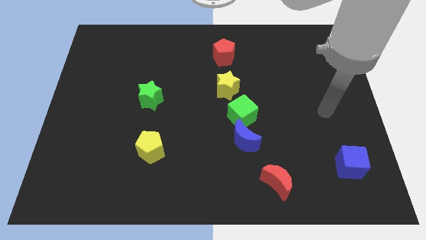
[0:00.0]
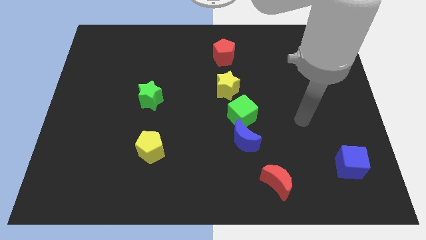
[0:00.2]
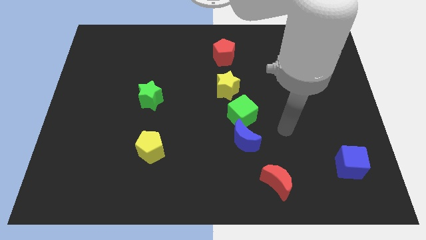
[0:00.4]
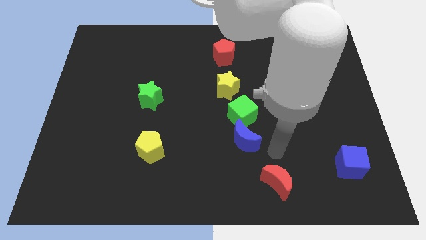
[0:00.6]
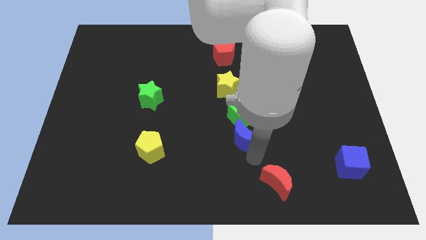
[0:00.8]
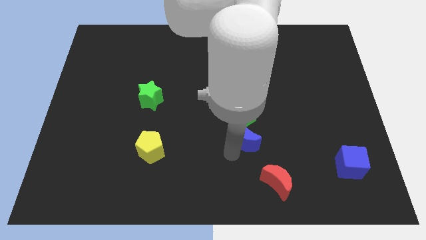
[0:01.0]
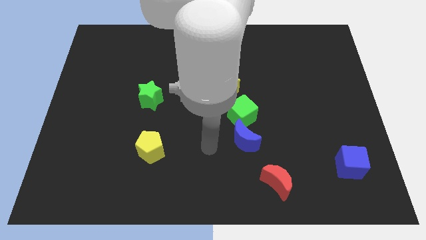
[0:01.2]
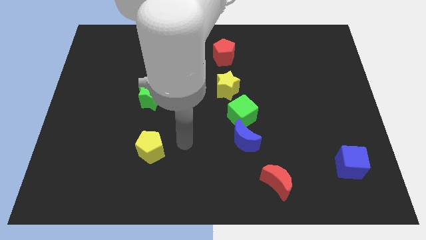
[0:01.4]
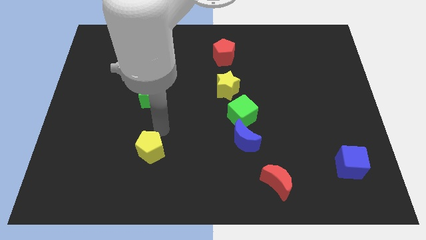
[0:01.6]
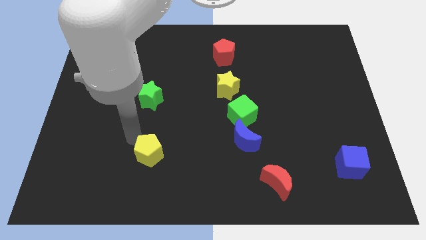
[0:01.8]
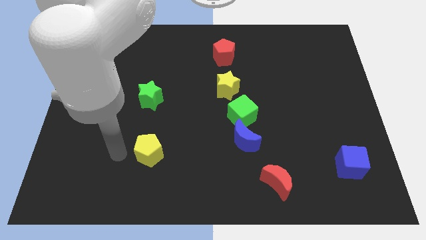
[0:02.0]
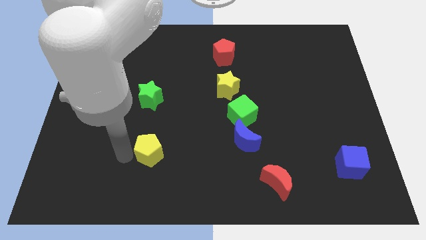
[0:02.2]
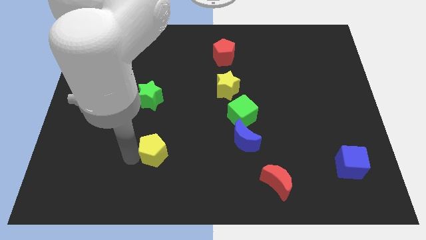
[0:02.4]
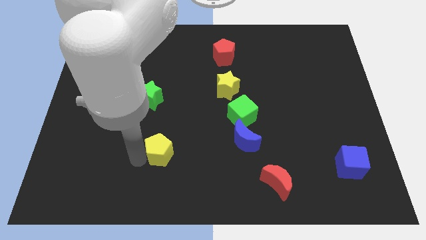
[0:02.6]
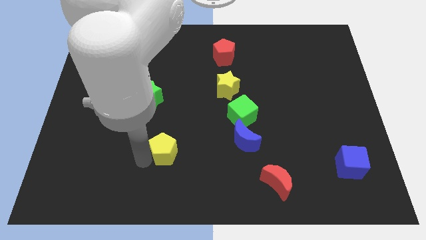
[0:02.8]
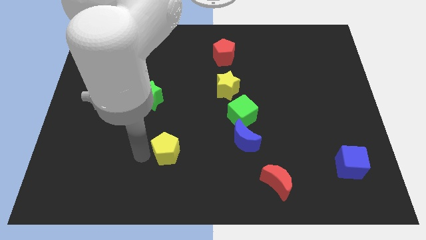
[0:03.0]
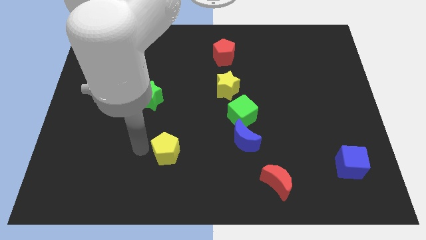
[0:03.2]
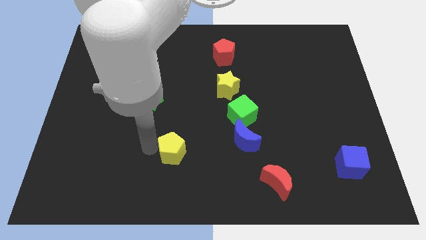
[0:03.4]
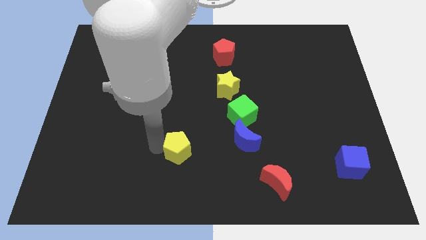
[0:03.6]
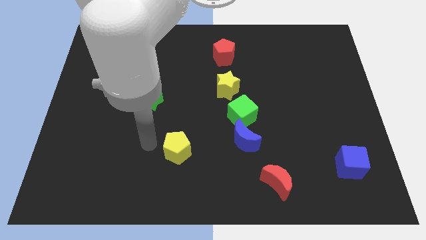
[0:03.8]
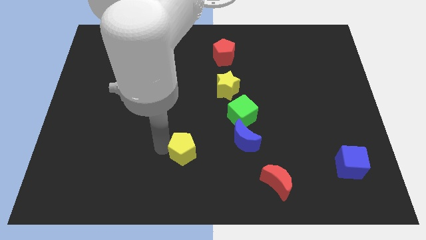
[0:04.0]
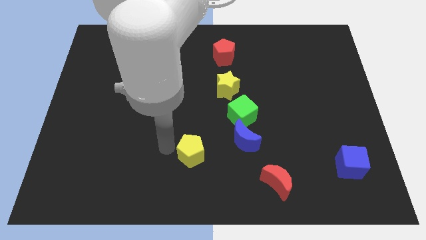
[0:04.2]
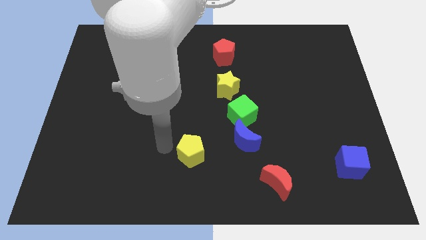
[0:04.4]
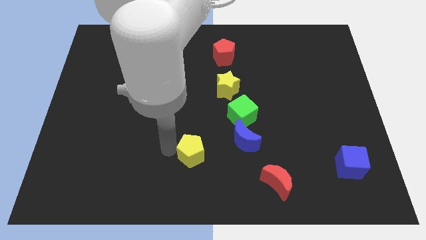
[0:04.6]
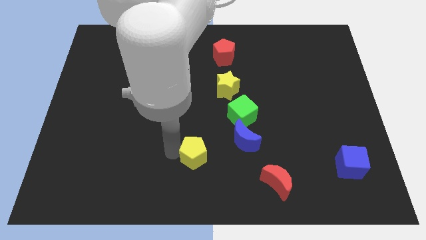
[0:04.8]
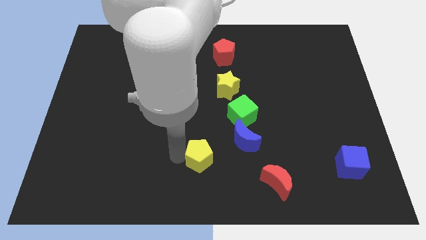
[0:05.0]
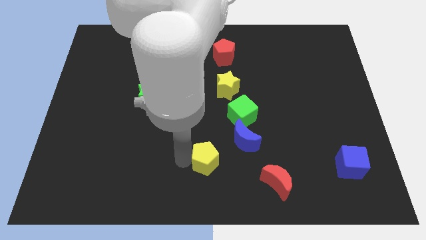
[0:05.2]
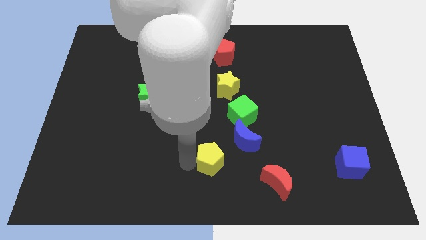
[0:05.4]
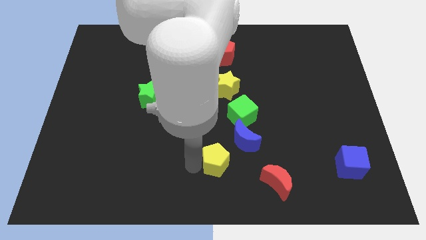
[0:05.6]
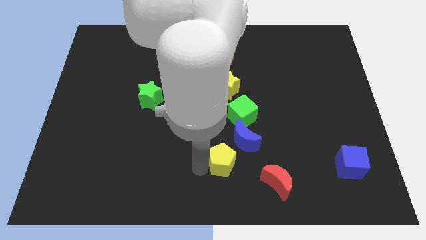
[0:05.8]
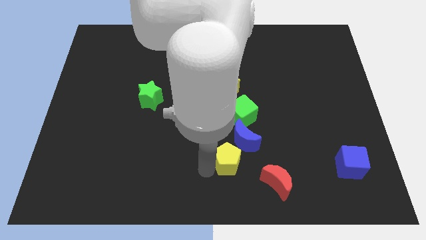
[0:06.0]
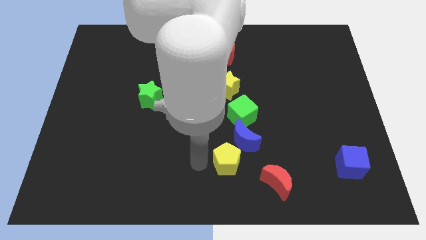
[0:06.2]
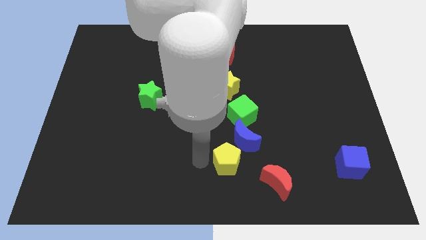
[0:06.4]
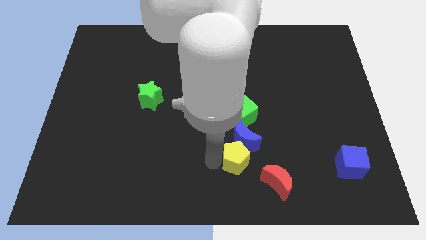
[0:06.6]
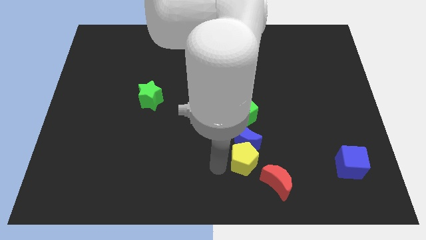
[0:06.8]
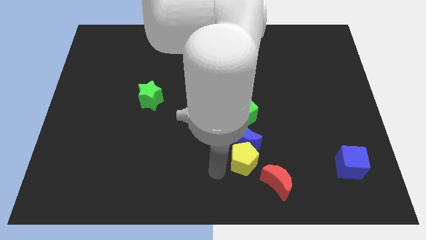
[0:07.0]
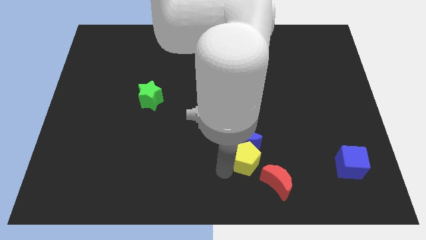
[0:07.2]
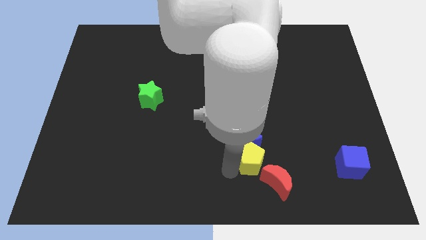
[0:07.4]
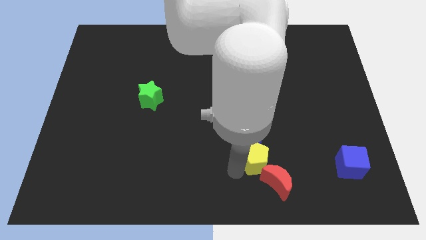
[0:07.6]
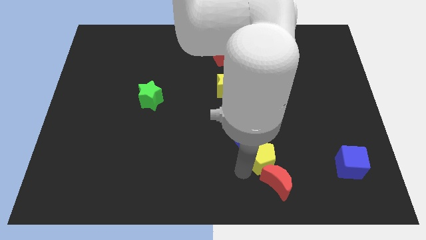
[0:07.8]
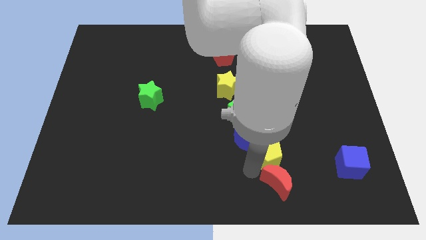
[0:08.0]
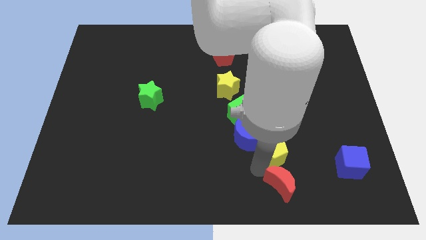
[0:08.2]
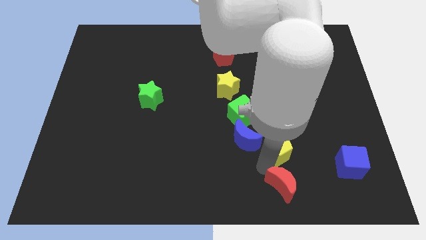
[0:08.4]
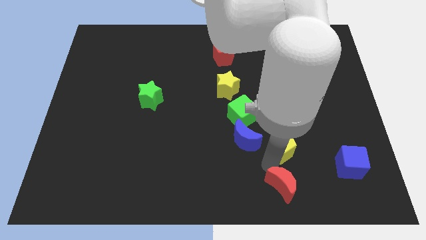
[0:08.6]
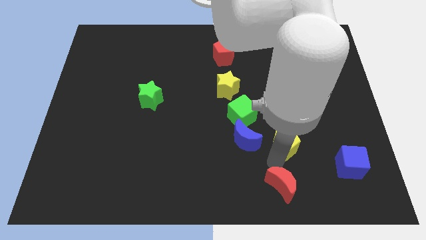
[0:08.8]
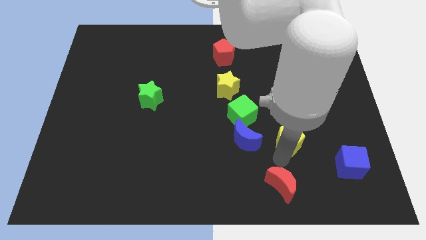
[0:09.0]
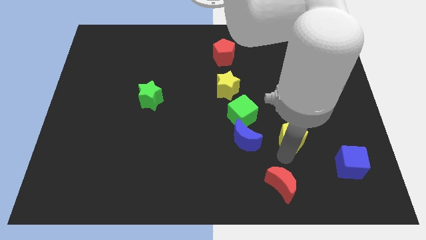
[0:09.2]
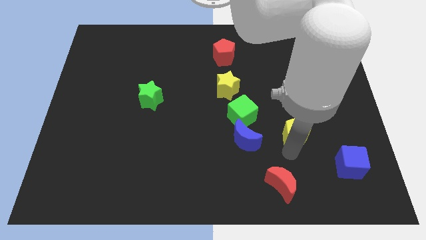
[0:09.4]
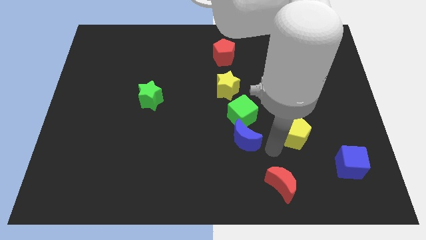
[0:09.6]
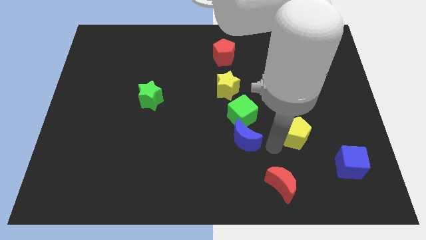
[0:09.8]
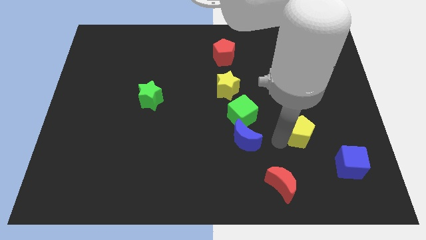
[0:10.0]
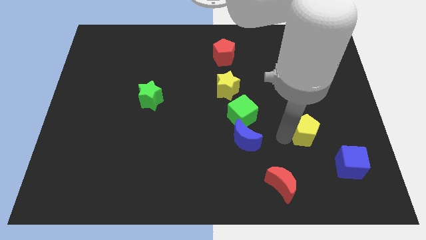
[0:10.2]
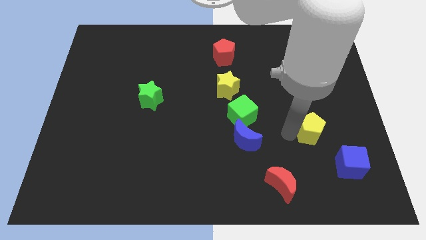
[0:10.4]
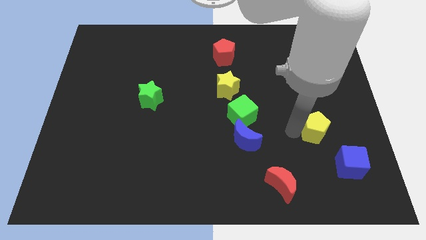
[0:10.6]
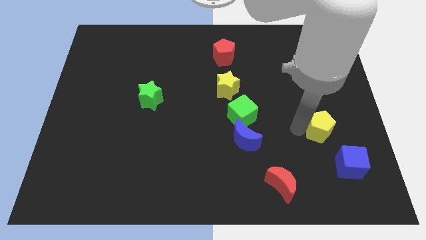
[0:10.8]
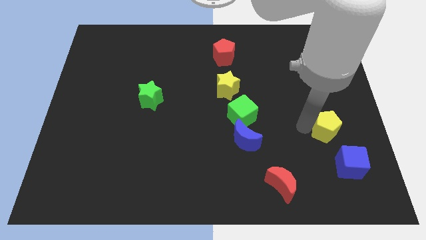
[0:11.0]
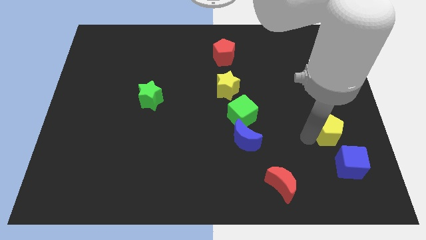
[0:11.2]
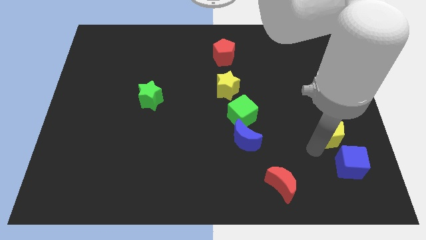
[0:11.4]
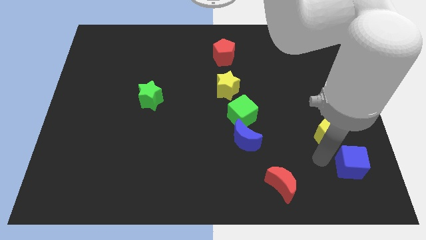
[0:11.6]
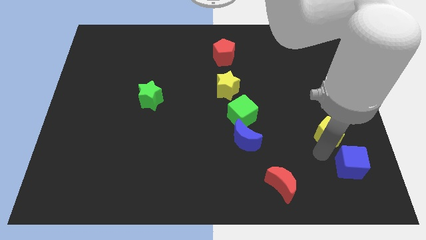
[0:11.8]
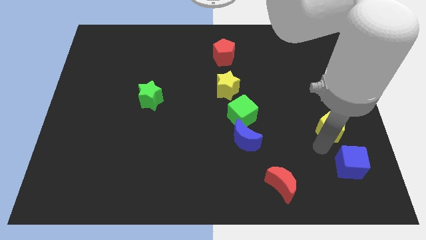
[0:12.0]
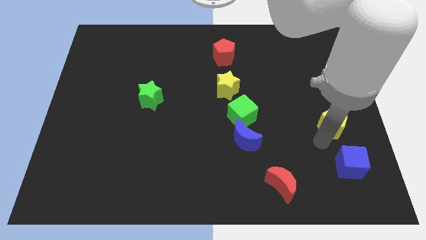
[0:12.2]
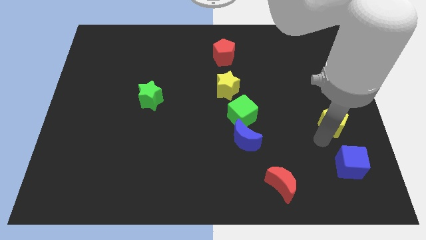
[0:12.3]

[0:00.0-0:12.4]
slide the yellow pentagon to the right side of the board

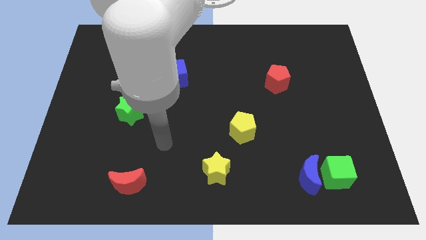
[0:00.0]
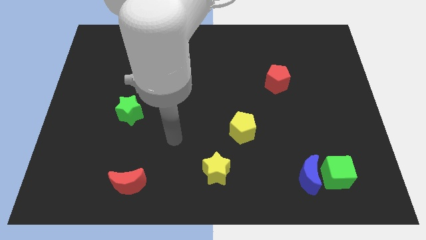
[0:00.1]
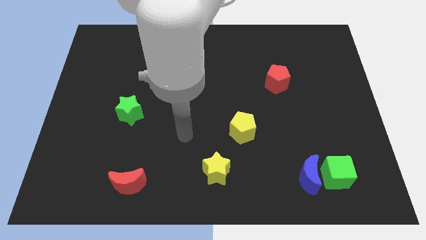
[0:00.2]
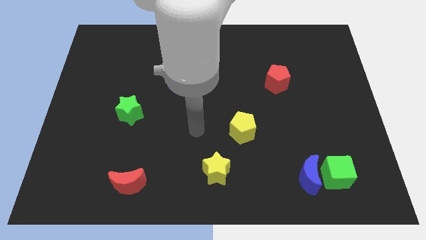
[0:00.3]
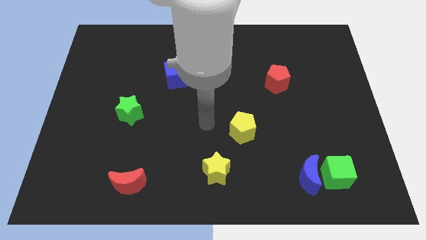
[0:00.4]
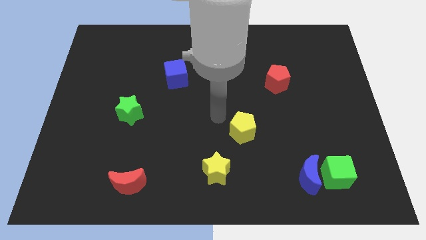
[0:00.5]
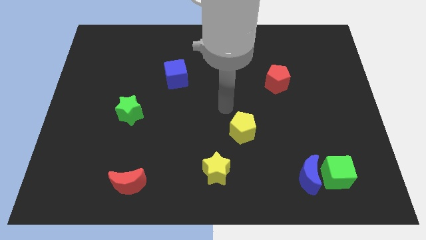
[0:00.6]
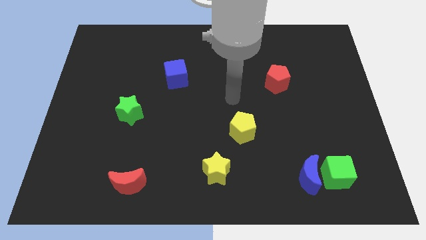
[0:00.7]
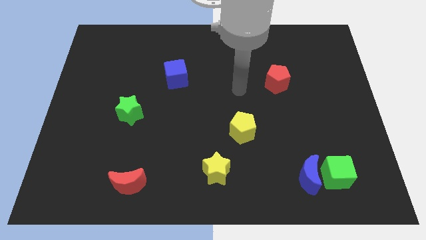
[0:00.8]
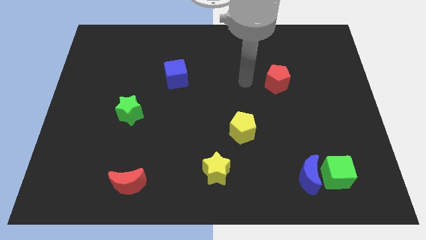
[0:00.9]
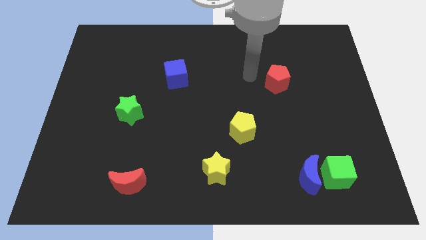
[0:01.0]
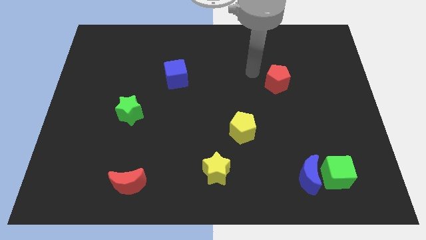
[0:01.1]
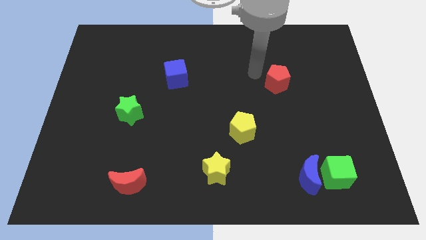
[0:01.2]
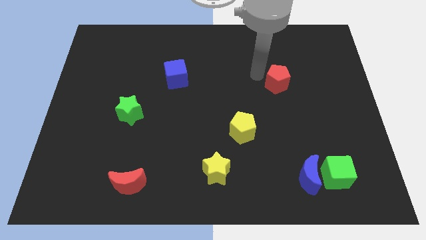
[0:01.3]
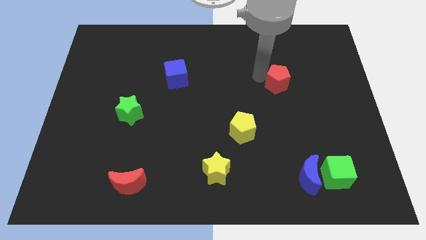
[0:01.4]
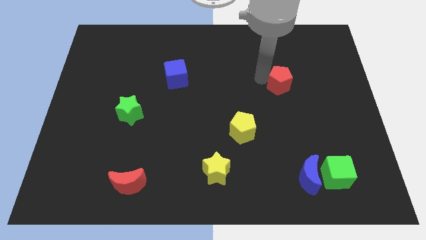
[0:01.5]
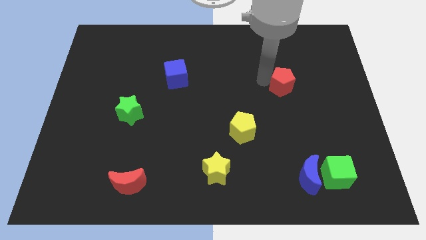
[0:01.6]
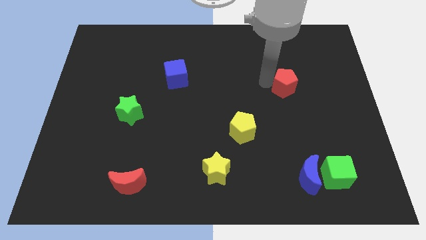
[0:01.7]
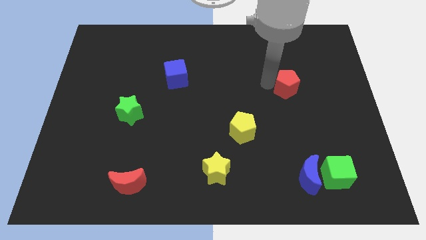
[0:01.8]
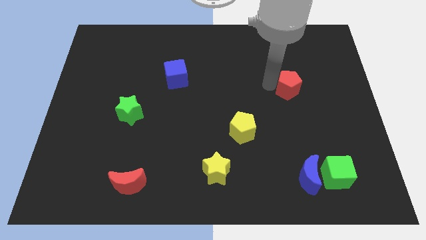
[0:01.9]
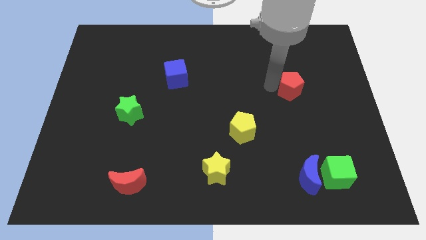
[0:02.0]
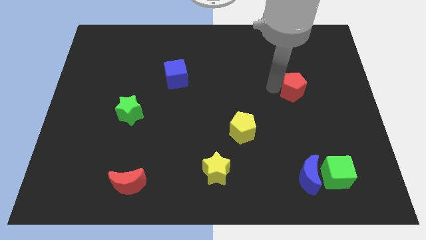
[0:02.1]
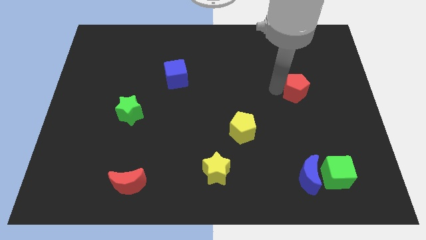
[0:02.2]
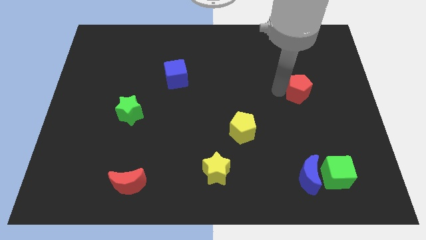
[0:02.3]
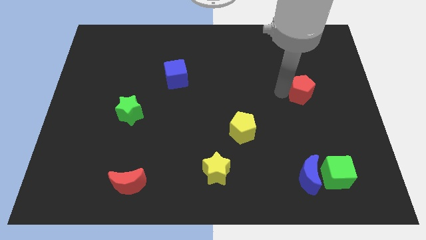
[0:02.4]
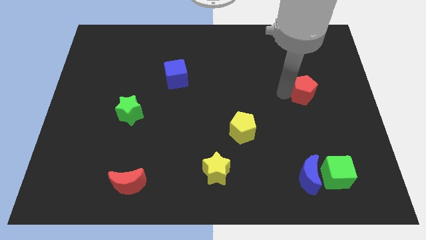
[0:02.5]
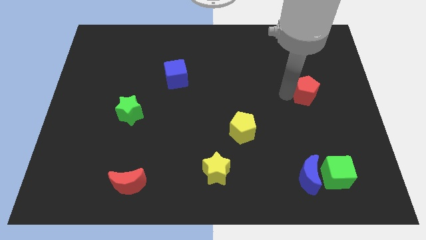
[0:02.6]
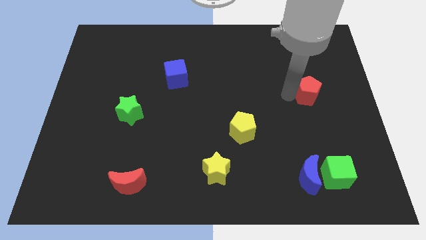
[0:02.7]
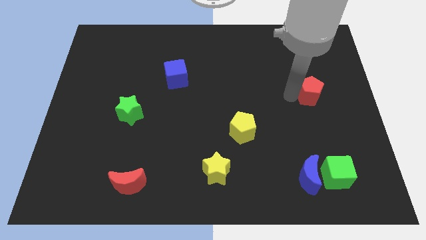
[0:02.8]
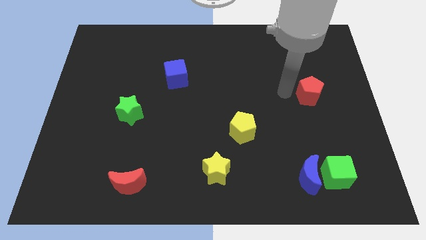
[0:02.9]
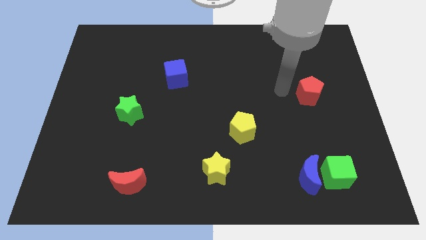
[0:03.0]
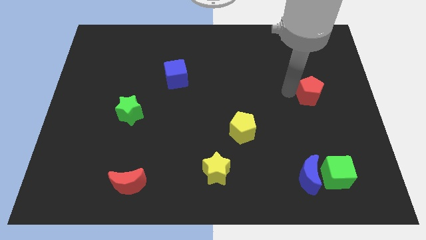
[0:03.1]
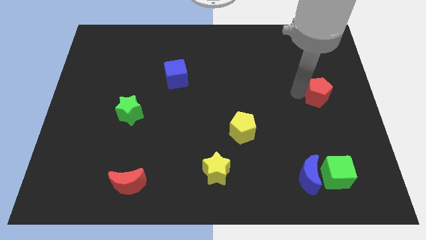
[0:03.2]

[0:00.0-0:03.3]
put the red pentagon to the center right
